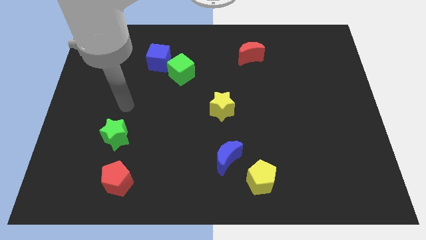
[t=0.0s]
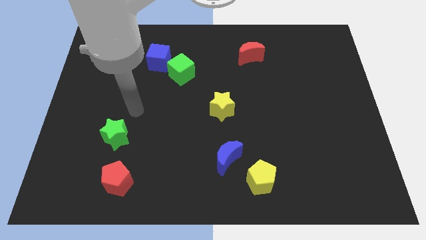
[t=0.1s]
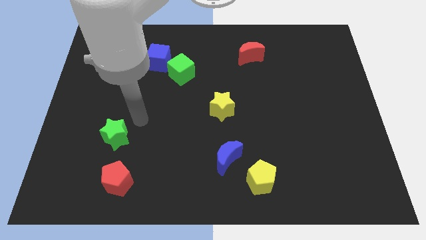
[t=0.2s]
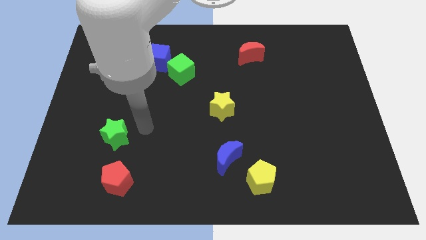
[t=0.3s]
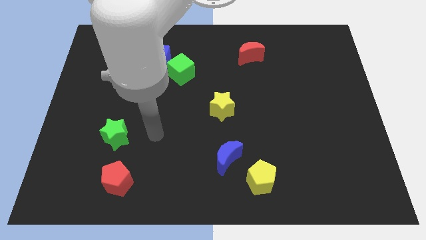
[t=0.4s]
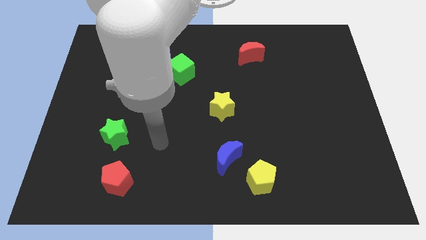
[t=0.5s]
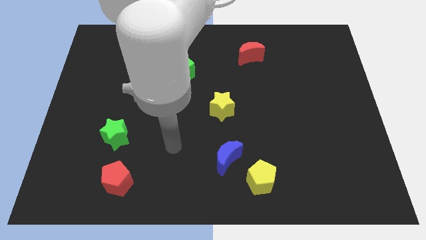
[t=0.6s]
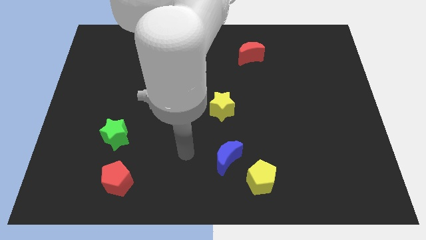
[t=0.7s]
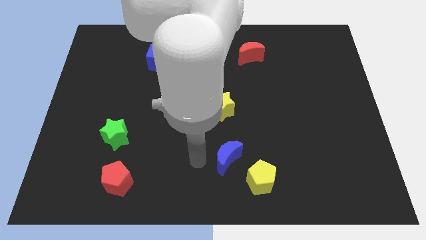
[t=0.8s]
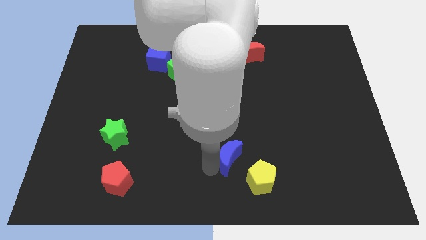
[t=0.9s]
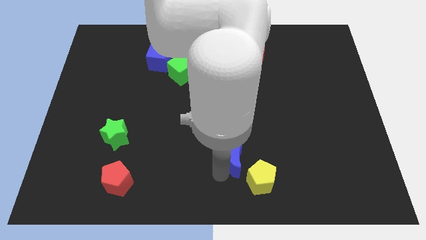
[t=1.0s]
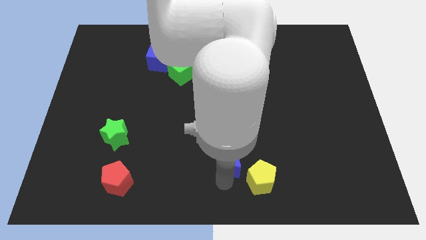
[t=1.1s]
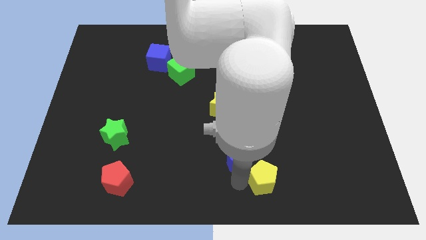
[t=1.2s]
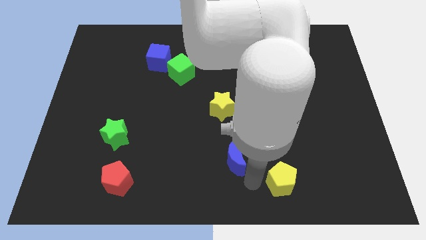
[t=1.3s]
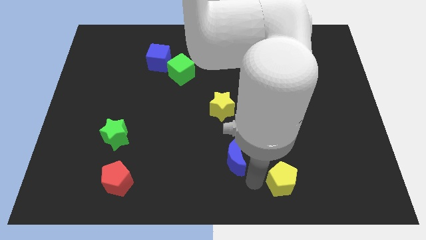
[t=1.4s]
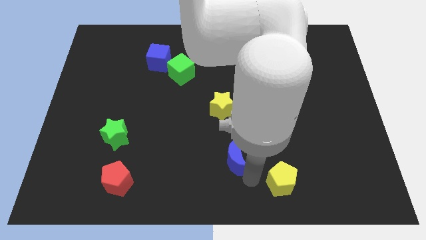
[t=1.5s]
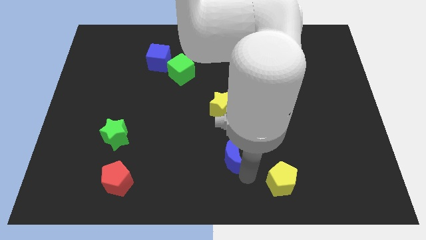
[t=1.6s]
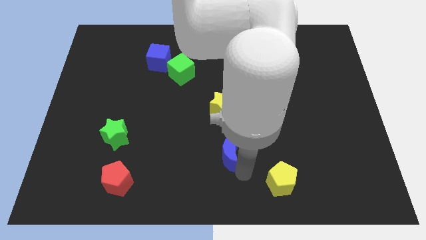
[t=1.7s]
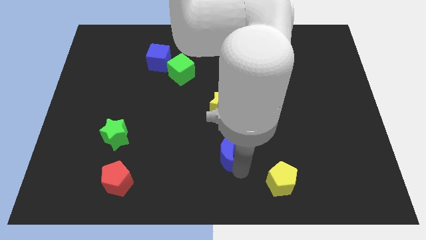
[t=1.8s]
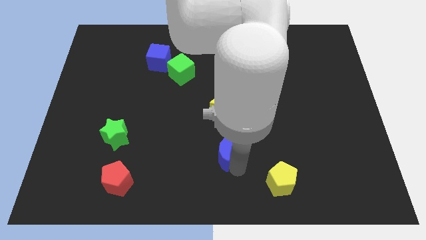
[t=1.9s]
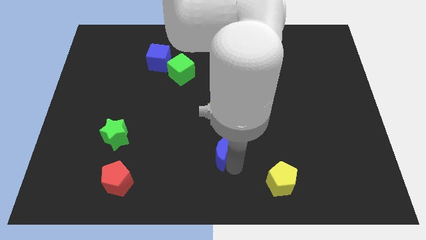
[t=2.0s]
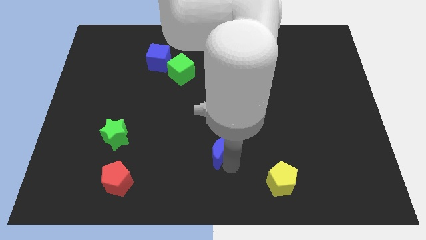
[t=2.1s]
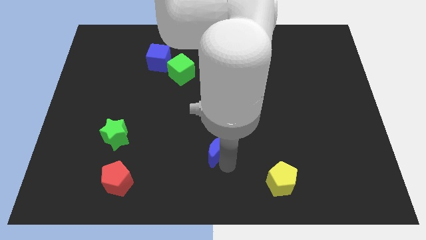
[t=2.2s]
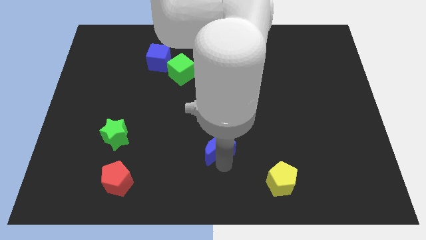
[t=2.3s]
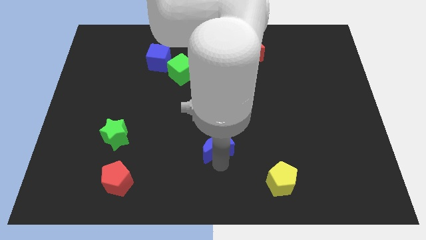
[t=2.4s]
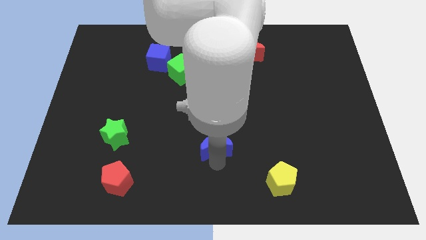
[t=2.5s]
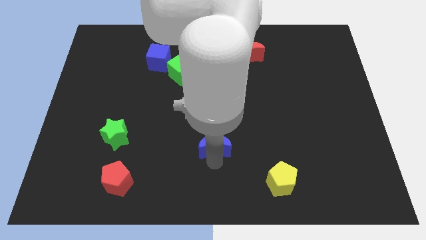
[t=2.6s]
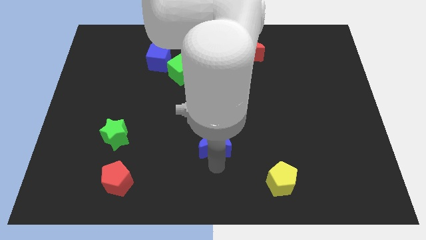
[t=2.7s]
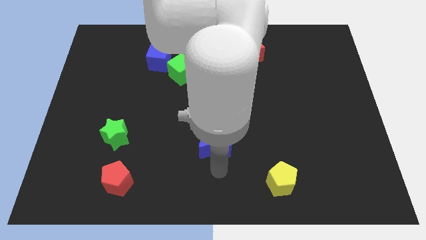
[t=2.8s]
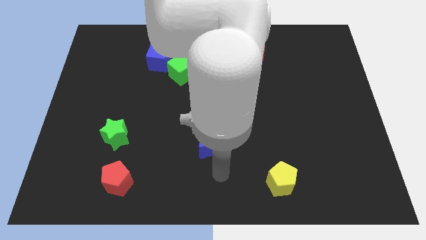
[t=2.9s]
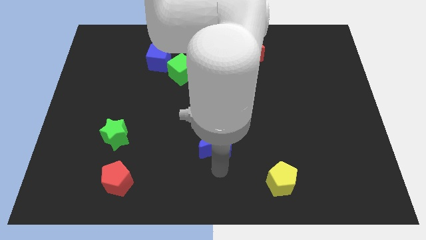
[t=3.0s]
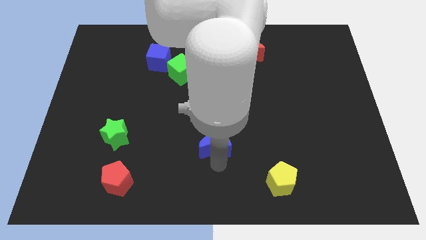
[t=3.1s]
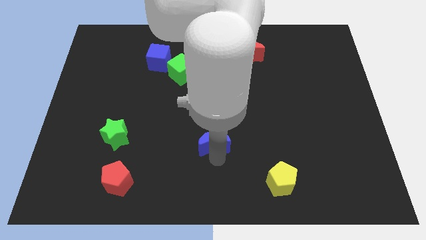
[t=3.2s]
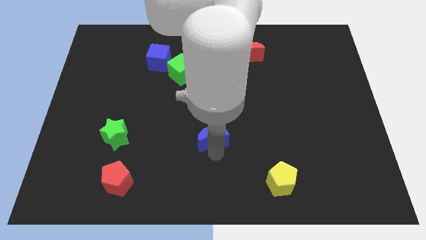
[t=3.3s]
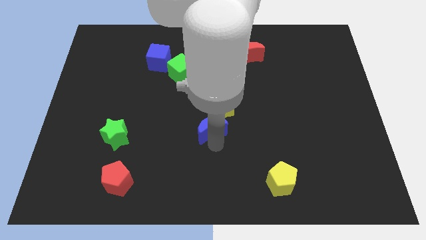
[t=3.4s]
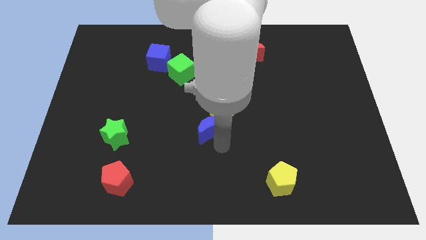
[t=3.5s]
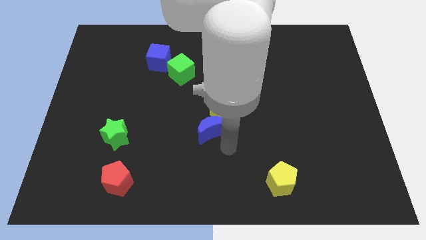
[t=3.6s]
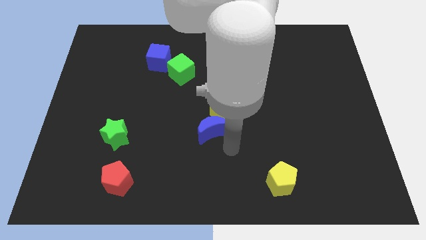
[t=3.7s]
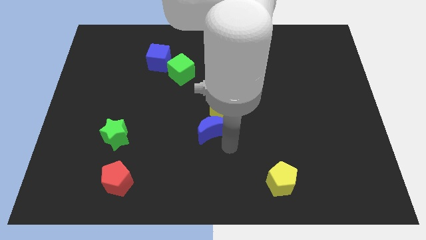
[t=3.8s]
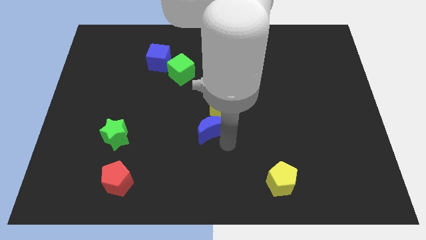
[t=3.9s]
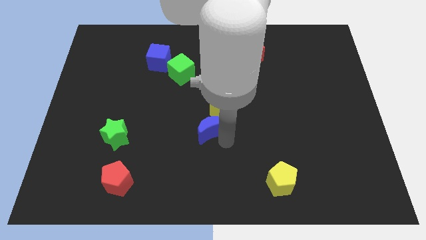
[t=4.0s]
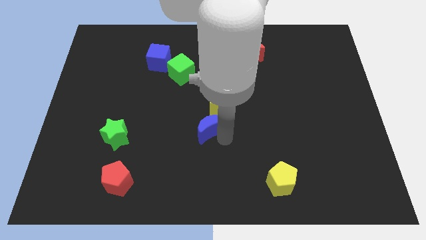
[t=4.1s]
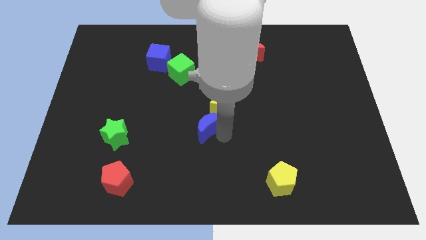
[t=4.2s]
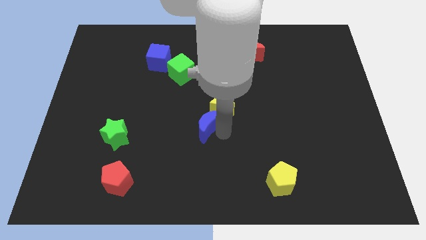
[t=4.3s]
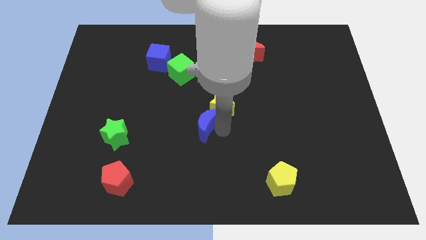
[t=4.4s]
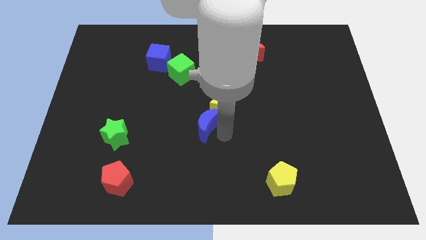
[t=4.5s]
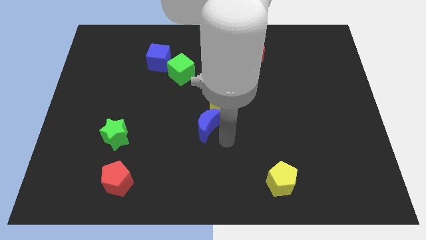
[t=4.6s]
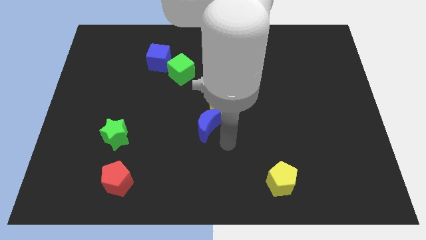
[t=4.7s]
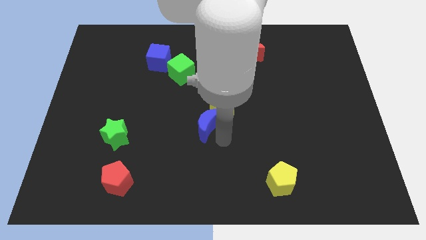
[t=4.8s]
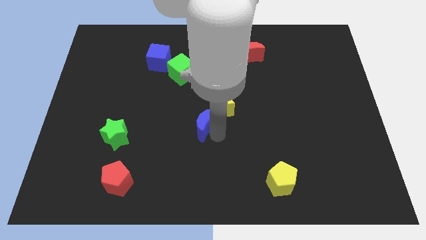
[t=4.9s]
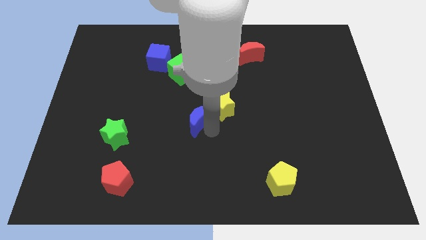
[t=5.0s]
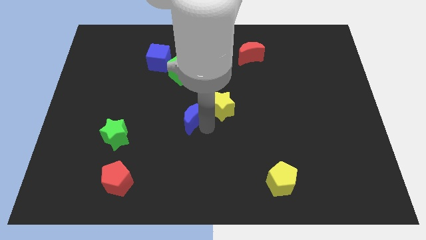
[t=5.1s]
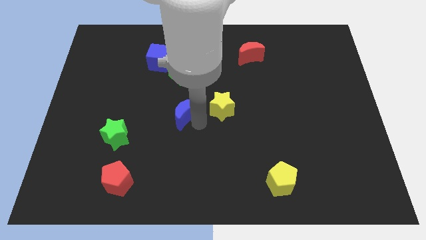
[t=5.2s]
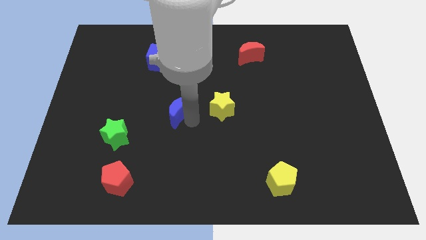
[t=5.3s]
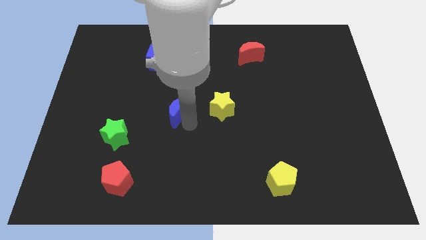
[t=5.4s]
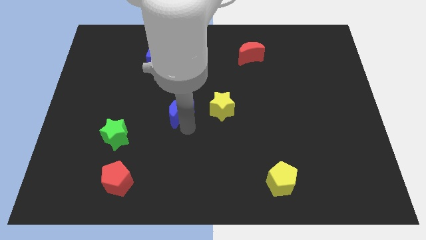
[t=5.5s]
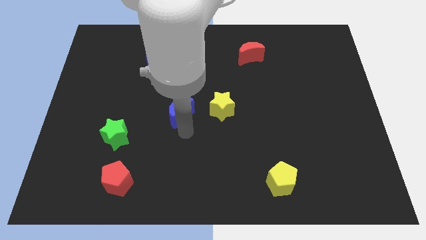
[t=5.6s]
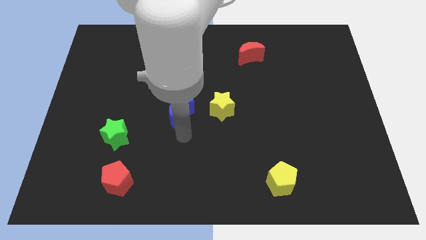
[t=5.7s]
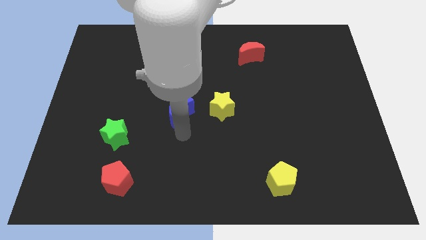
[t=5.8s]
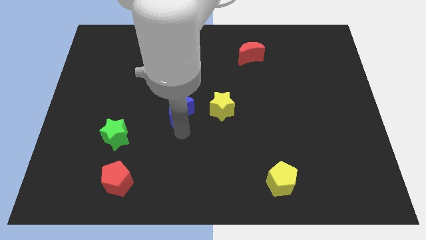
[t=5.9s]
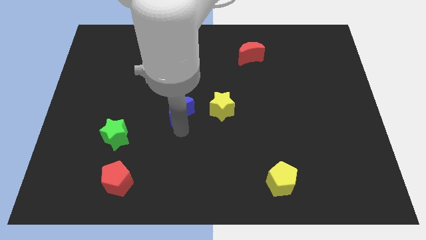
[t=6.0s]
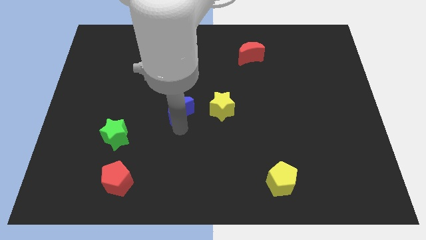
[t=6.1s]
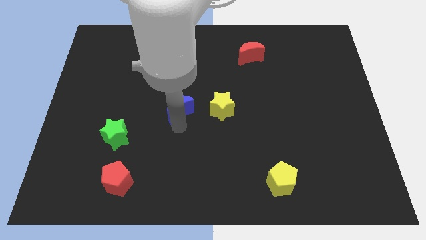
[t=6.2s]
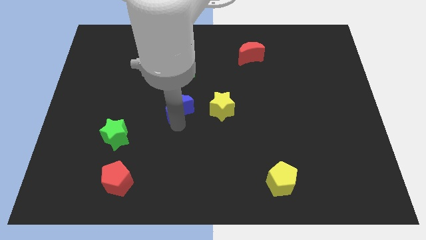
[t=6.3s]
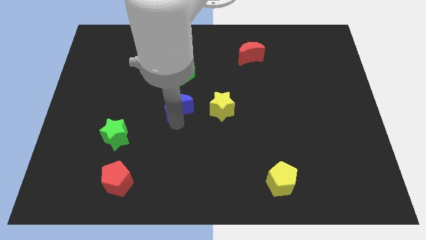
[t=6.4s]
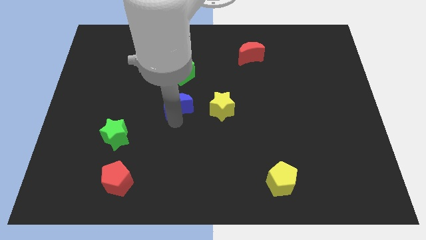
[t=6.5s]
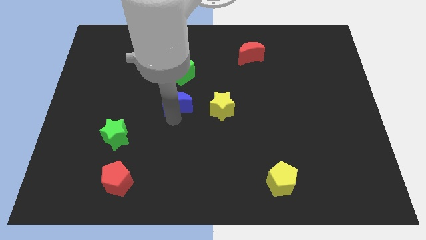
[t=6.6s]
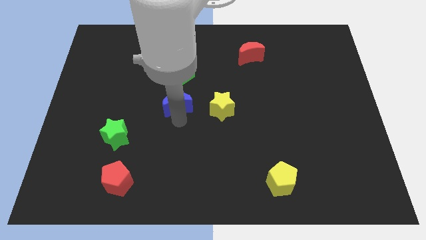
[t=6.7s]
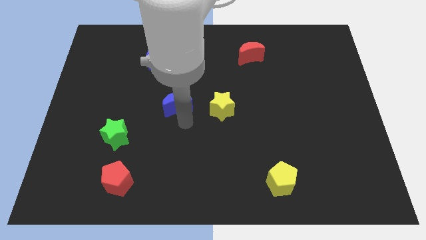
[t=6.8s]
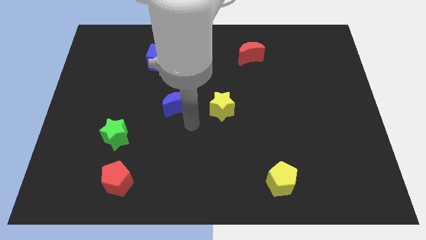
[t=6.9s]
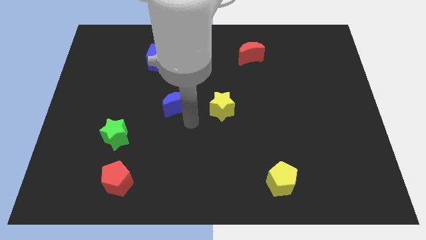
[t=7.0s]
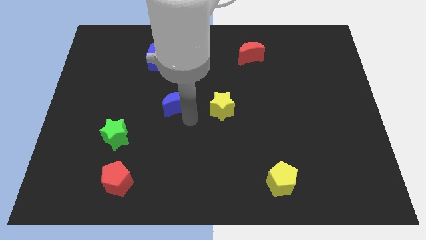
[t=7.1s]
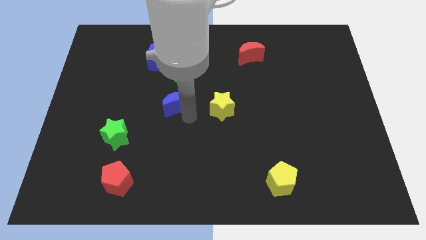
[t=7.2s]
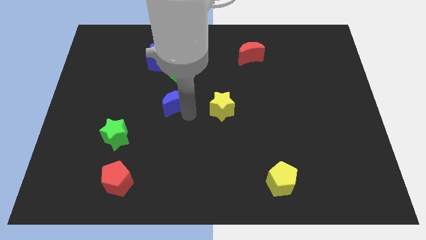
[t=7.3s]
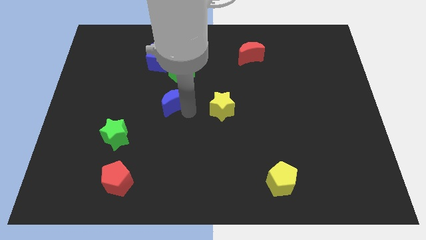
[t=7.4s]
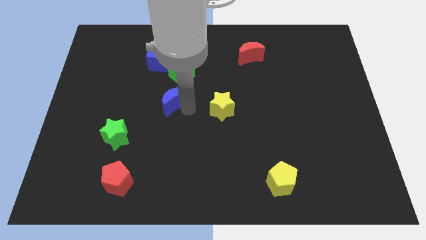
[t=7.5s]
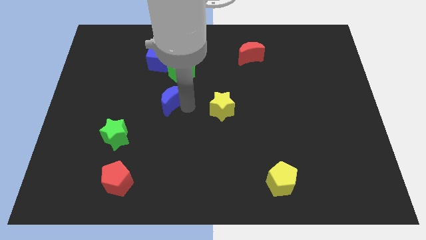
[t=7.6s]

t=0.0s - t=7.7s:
move the blue moon diagonally up and left

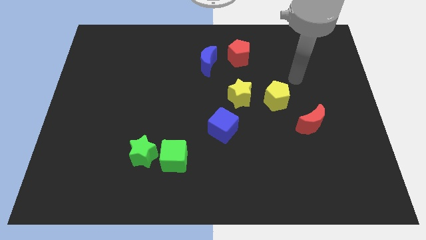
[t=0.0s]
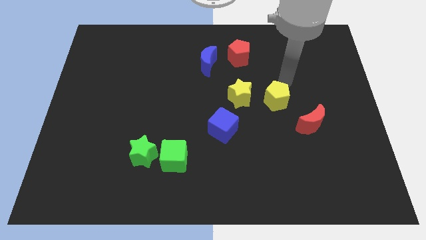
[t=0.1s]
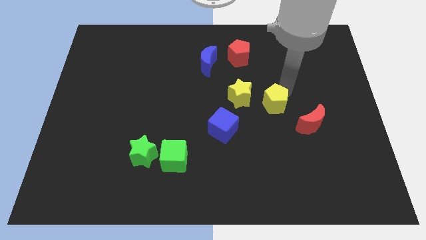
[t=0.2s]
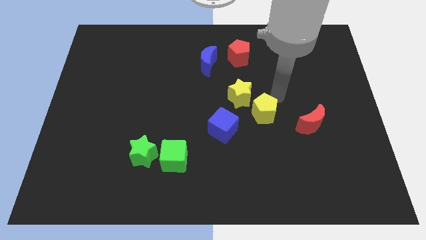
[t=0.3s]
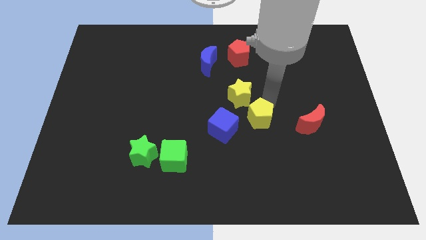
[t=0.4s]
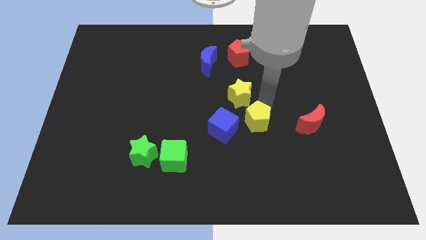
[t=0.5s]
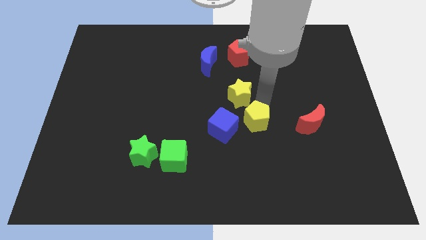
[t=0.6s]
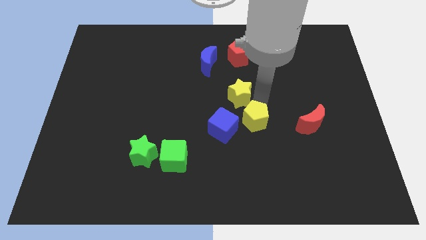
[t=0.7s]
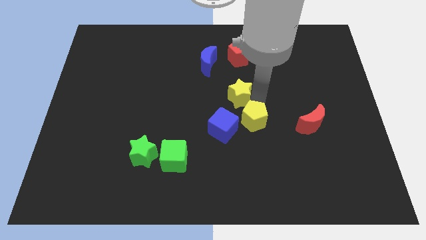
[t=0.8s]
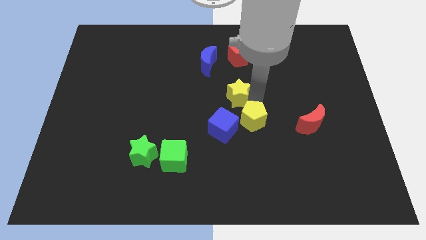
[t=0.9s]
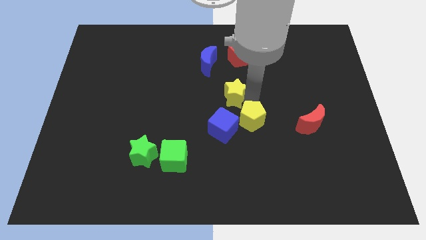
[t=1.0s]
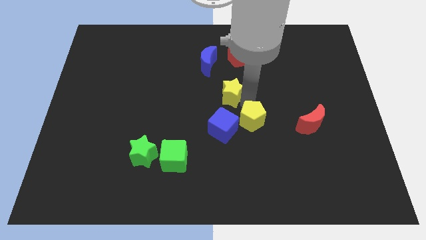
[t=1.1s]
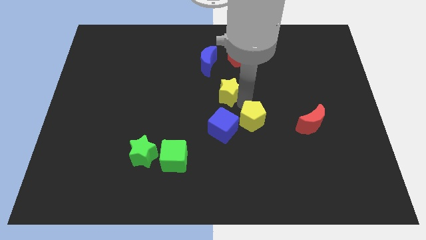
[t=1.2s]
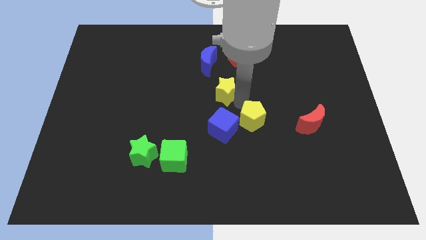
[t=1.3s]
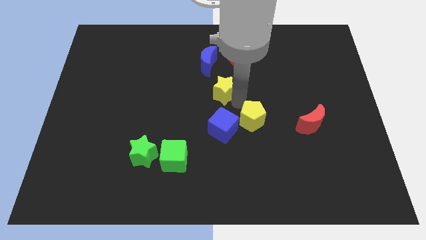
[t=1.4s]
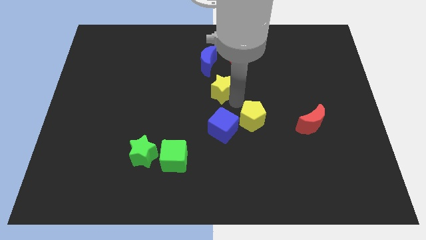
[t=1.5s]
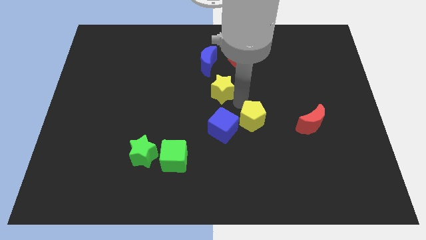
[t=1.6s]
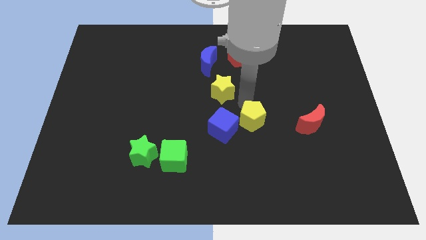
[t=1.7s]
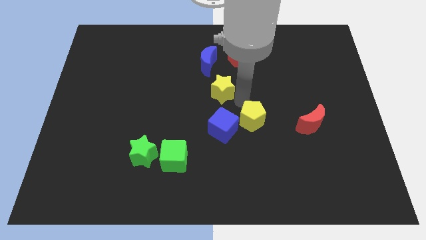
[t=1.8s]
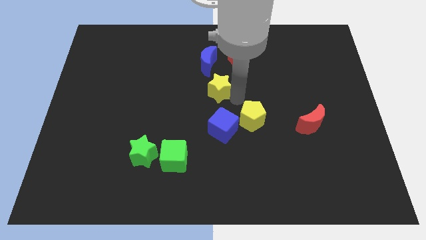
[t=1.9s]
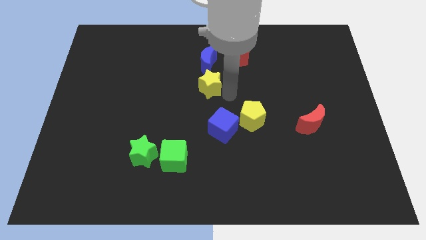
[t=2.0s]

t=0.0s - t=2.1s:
slide the yellow star somewhat up and to the left
